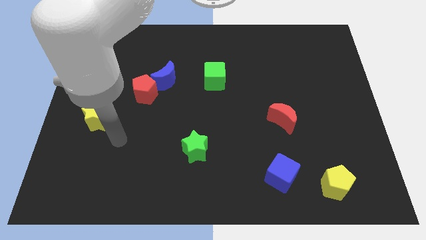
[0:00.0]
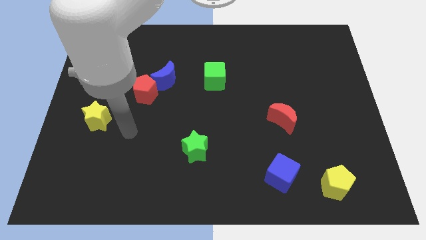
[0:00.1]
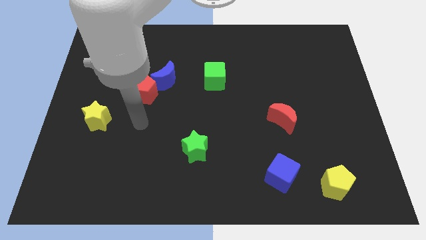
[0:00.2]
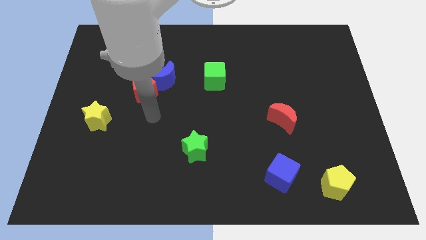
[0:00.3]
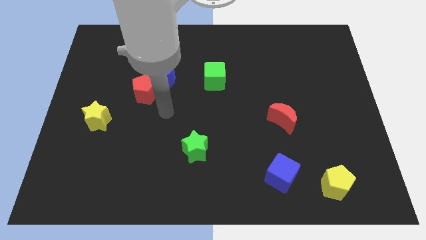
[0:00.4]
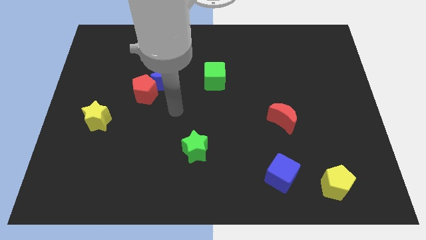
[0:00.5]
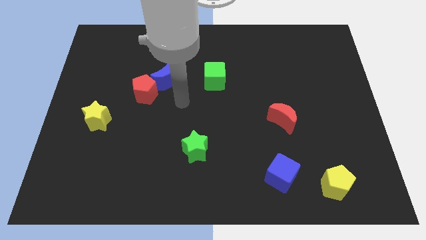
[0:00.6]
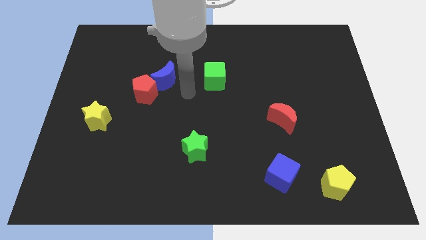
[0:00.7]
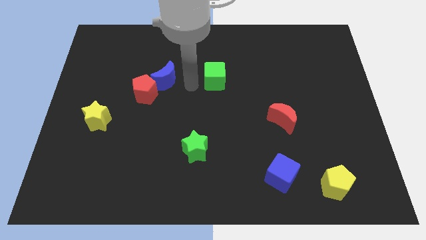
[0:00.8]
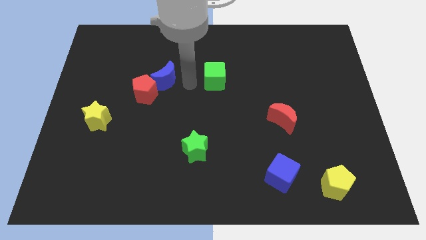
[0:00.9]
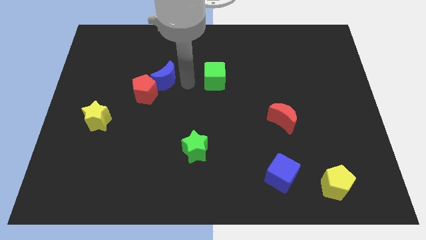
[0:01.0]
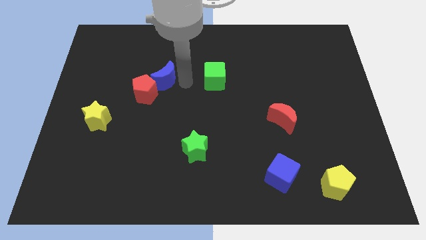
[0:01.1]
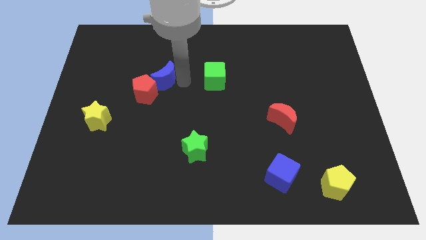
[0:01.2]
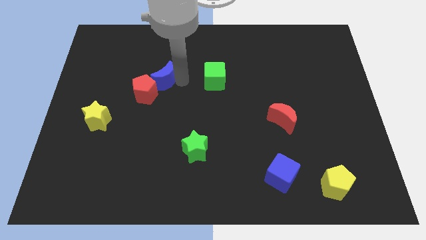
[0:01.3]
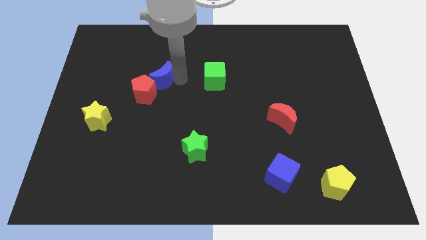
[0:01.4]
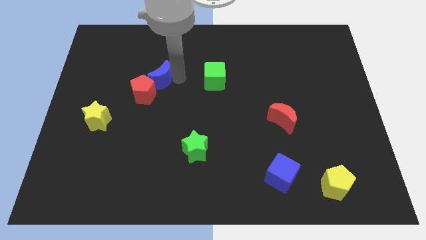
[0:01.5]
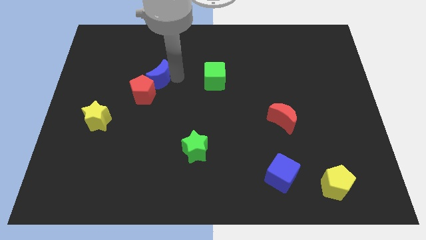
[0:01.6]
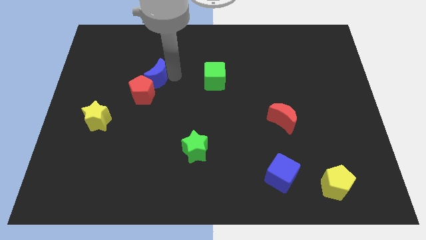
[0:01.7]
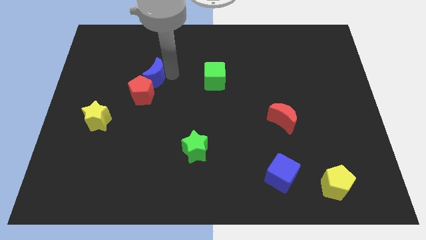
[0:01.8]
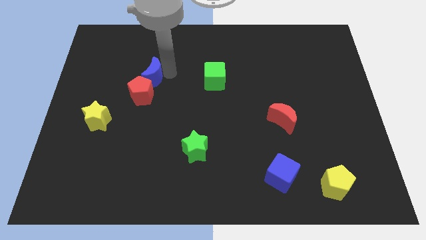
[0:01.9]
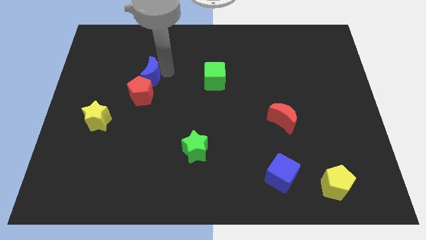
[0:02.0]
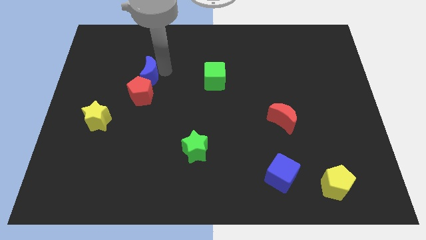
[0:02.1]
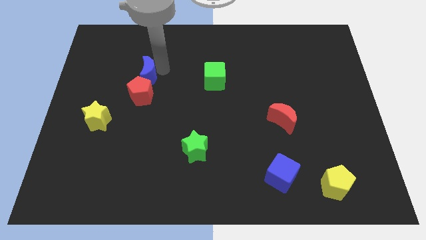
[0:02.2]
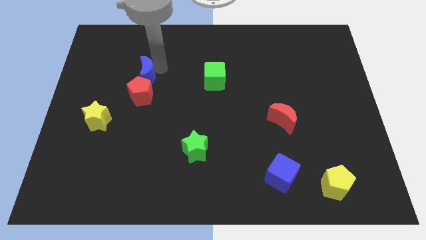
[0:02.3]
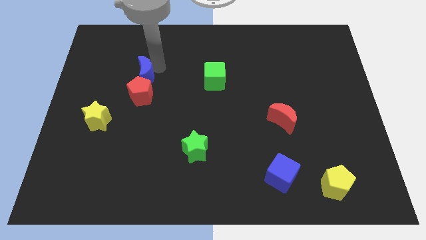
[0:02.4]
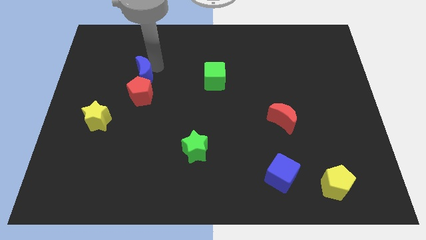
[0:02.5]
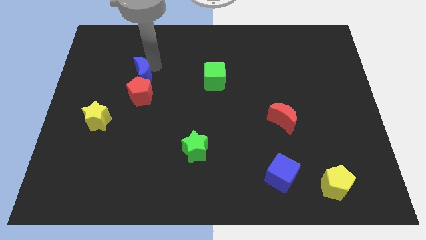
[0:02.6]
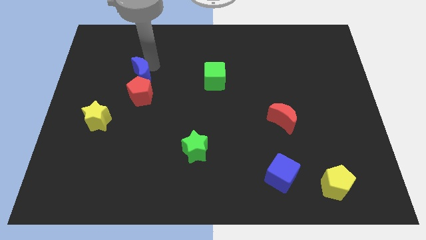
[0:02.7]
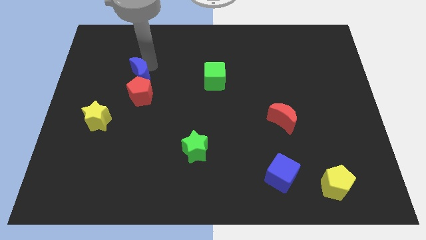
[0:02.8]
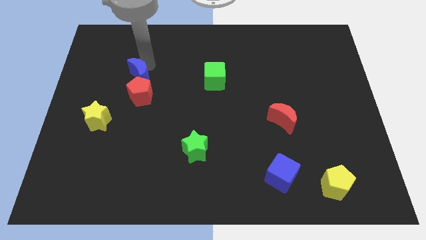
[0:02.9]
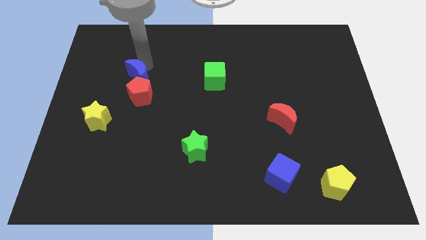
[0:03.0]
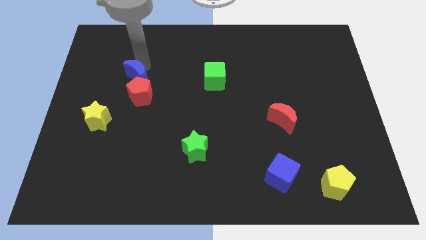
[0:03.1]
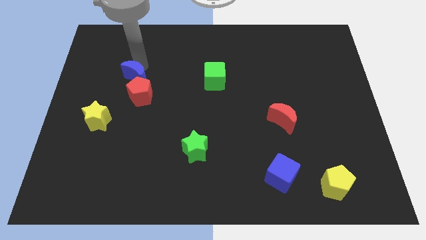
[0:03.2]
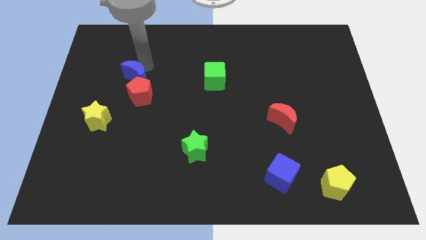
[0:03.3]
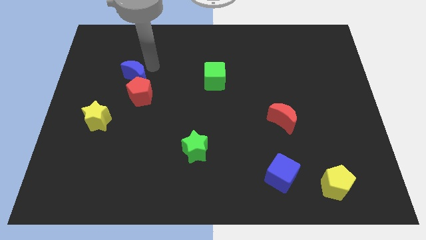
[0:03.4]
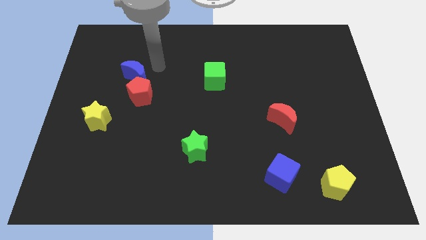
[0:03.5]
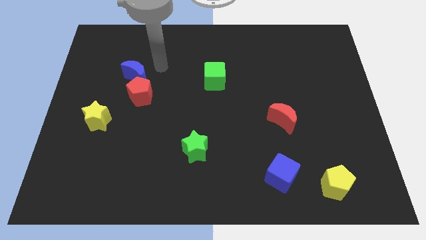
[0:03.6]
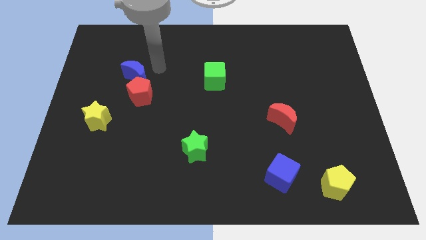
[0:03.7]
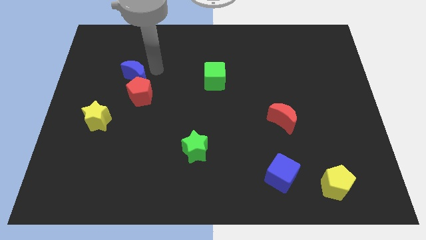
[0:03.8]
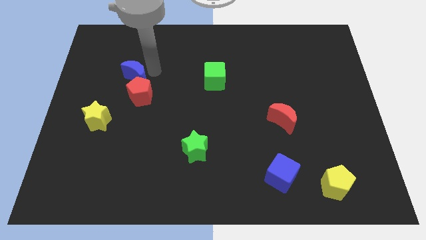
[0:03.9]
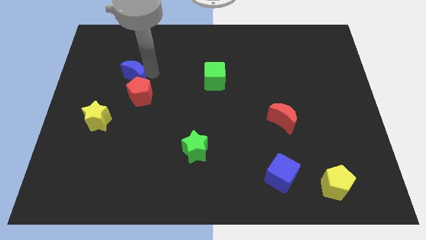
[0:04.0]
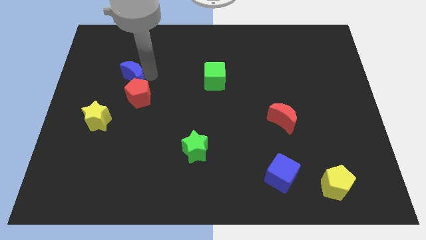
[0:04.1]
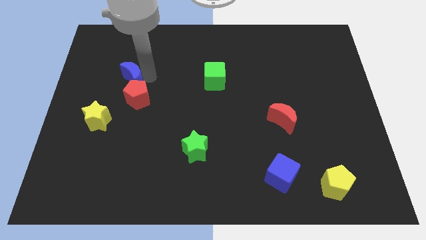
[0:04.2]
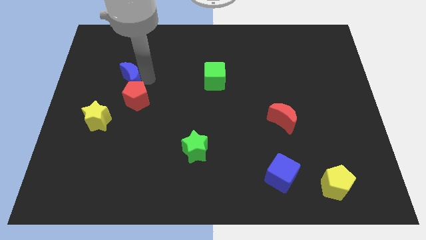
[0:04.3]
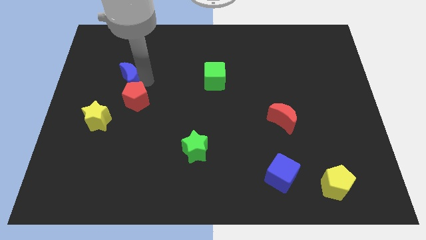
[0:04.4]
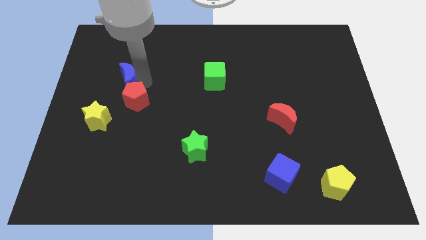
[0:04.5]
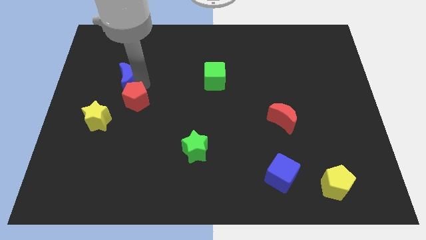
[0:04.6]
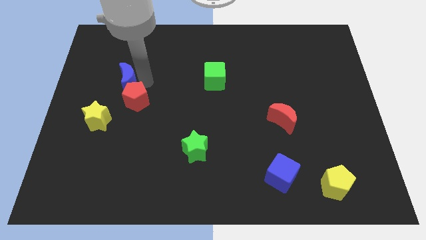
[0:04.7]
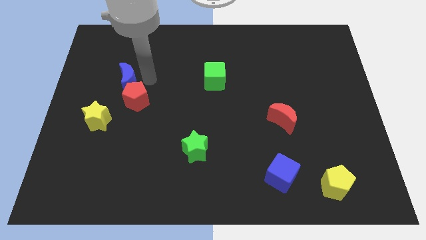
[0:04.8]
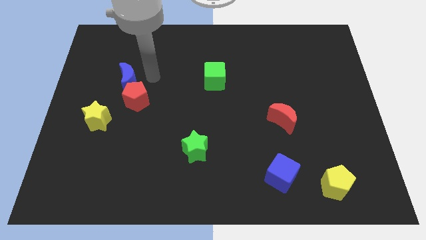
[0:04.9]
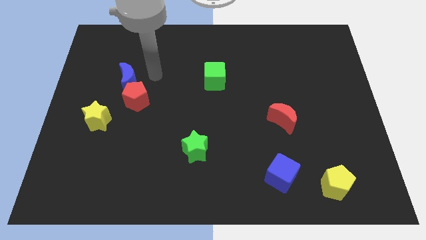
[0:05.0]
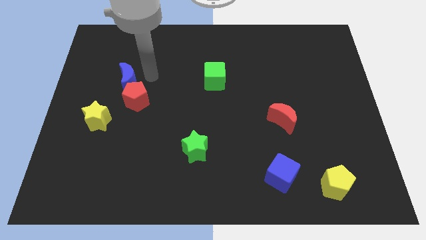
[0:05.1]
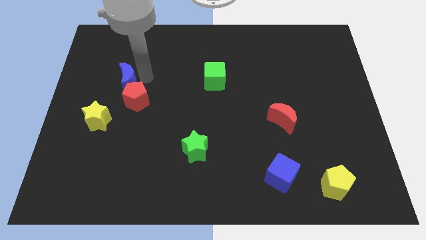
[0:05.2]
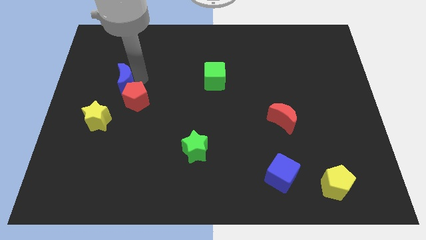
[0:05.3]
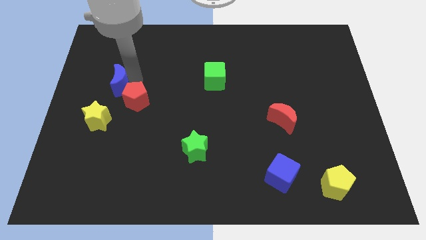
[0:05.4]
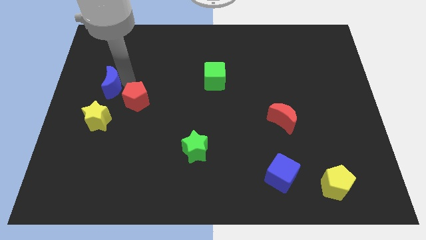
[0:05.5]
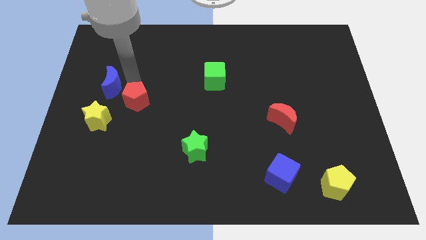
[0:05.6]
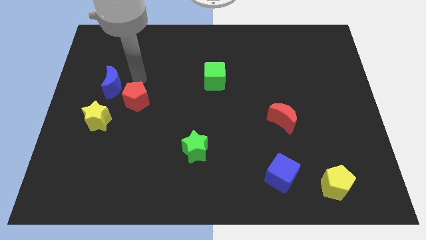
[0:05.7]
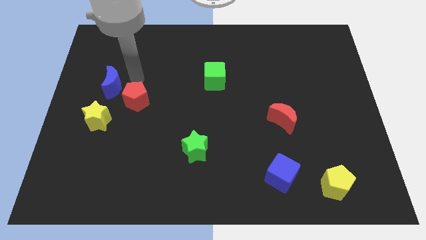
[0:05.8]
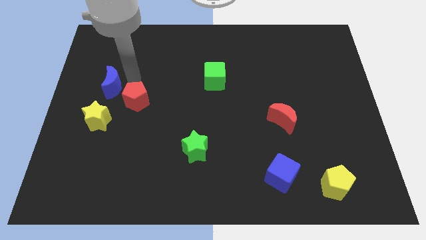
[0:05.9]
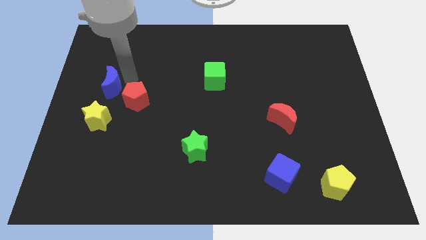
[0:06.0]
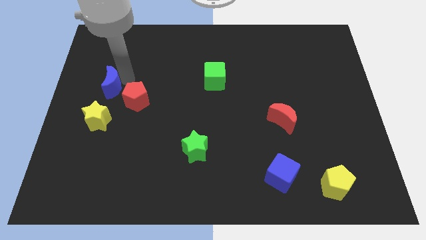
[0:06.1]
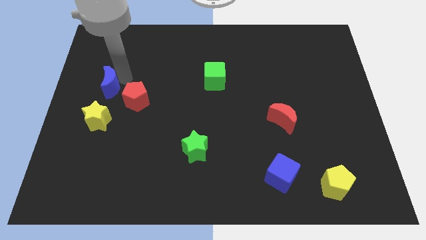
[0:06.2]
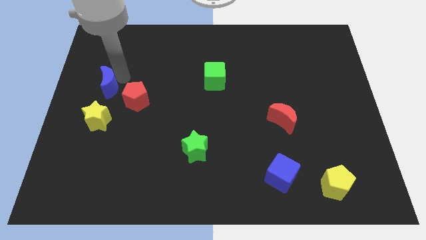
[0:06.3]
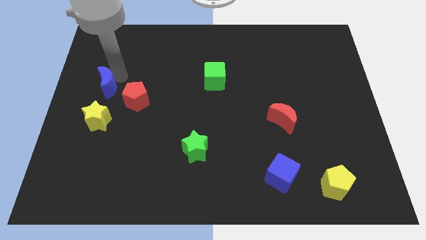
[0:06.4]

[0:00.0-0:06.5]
put the blue moon to the left side
